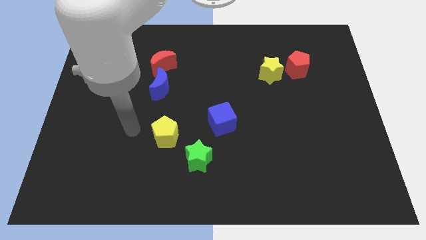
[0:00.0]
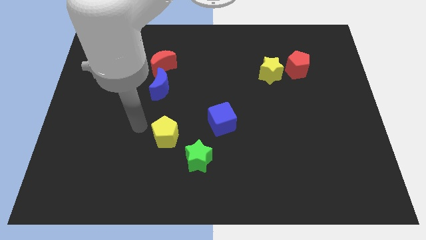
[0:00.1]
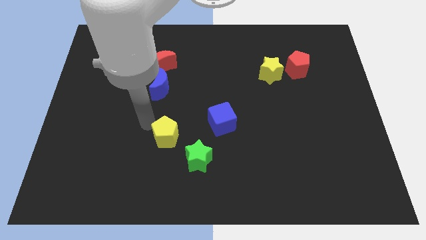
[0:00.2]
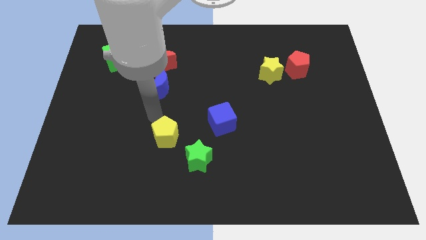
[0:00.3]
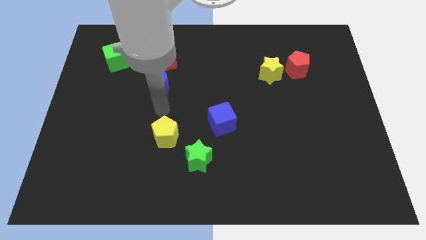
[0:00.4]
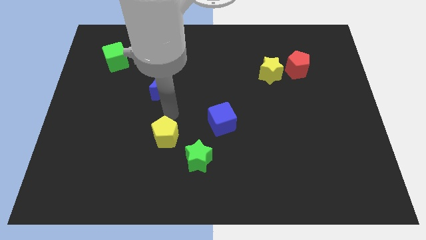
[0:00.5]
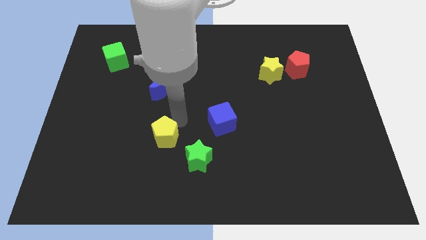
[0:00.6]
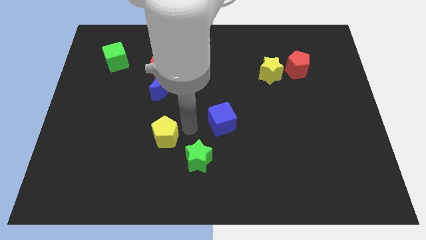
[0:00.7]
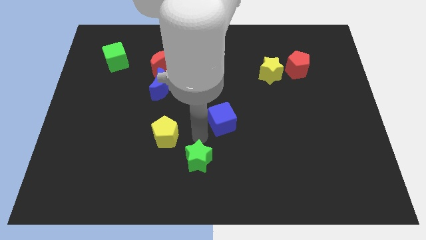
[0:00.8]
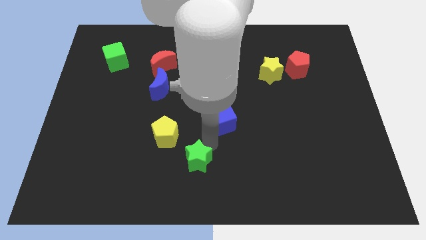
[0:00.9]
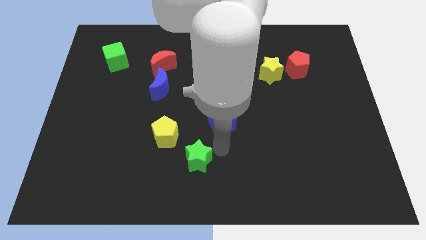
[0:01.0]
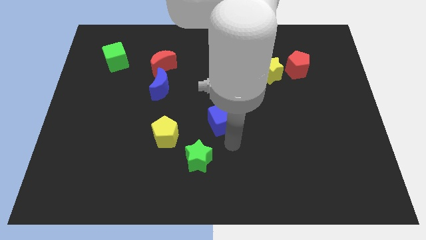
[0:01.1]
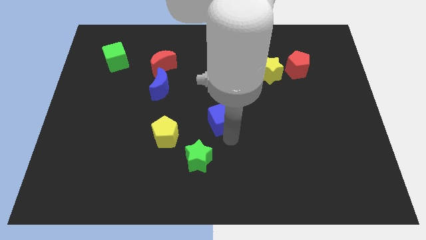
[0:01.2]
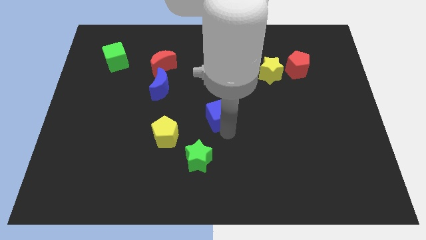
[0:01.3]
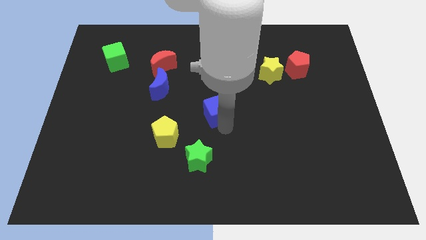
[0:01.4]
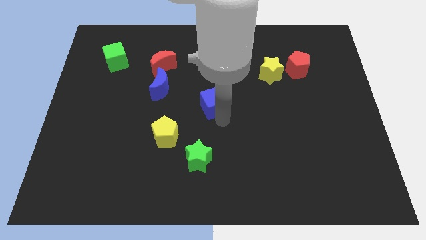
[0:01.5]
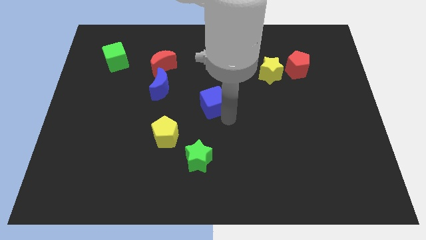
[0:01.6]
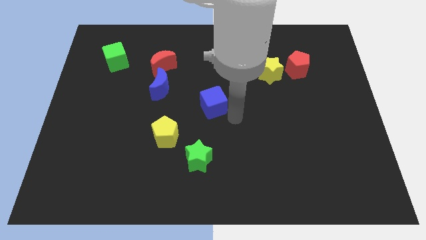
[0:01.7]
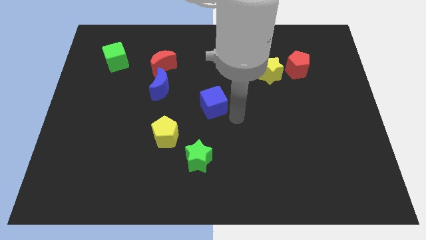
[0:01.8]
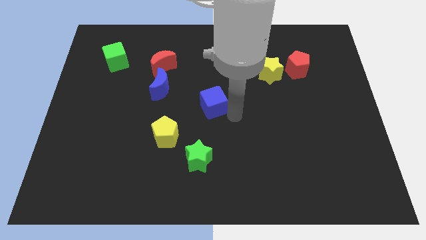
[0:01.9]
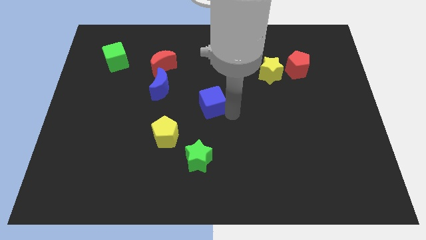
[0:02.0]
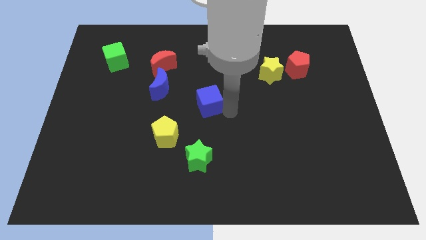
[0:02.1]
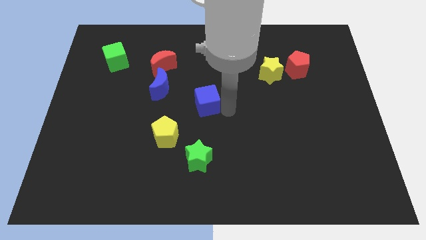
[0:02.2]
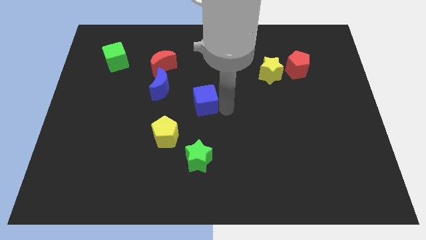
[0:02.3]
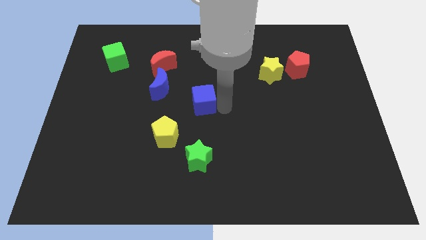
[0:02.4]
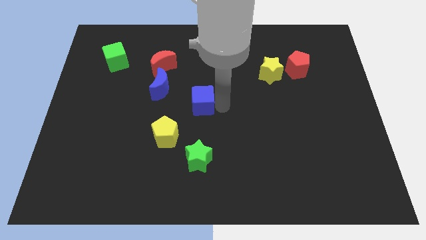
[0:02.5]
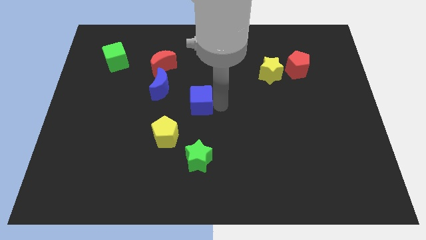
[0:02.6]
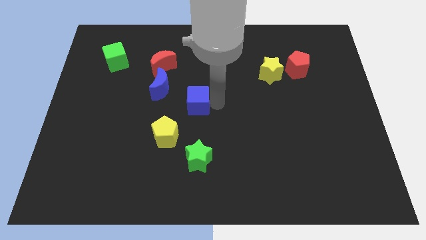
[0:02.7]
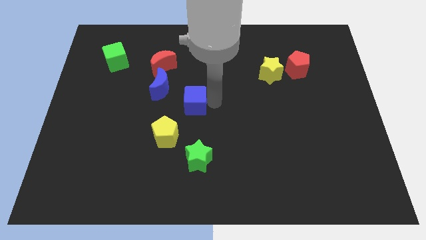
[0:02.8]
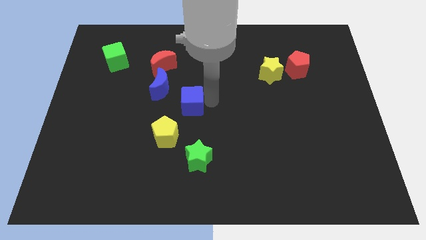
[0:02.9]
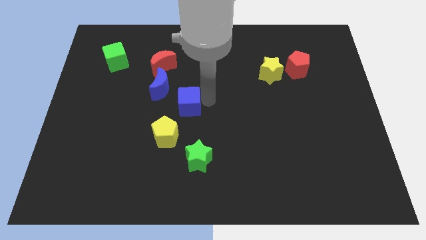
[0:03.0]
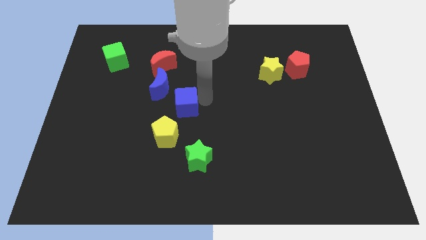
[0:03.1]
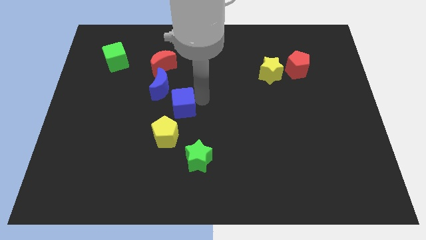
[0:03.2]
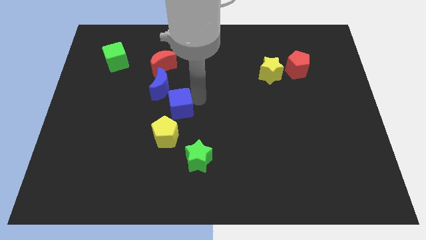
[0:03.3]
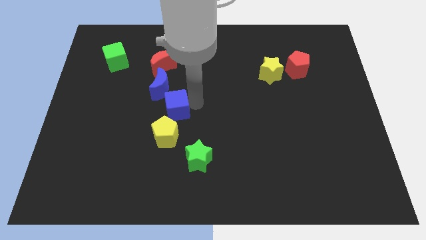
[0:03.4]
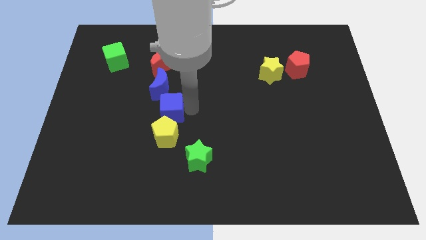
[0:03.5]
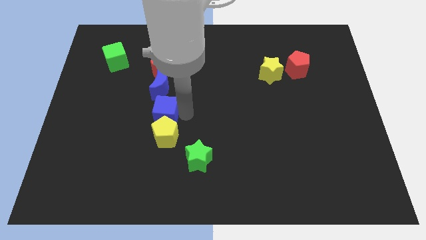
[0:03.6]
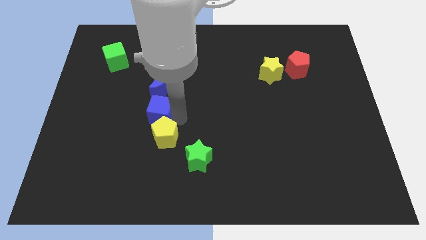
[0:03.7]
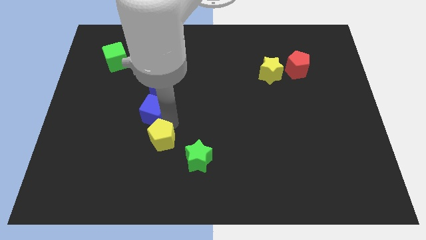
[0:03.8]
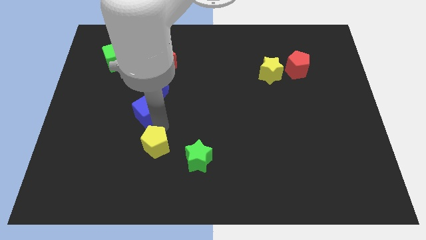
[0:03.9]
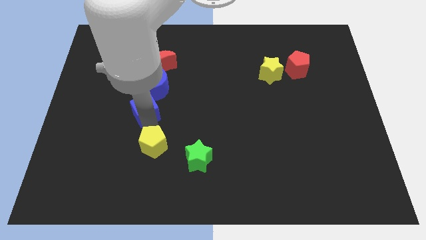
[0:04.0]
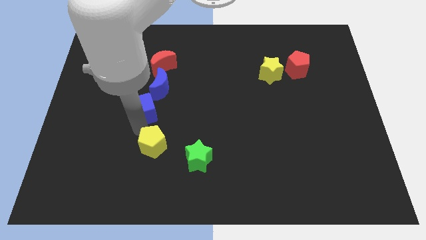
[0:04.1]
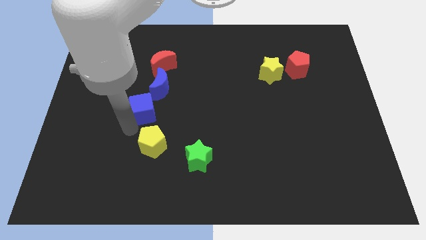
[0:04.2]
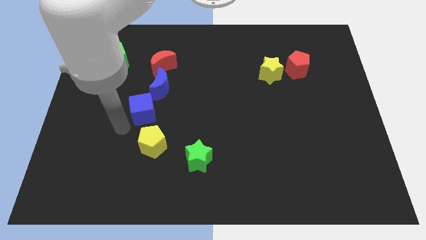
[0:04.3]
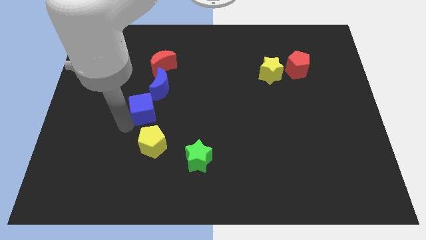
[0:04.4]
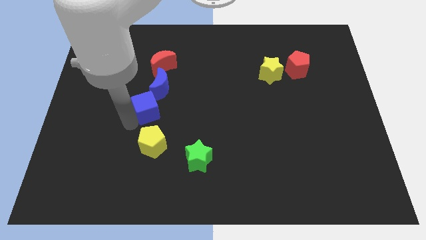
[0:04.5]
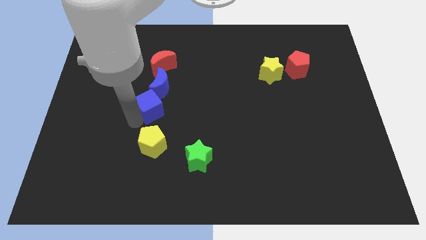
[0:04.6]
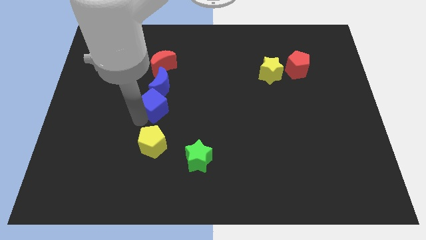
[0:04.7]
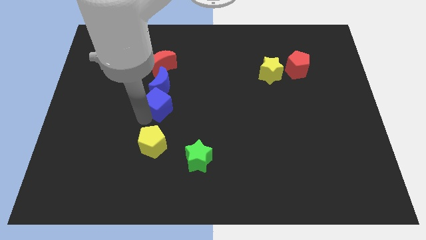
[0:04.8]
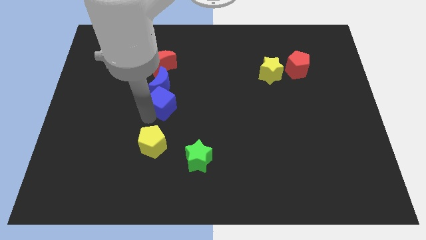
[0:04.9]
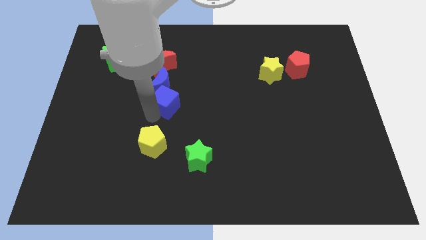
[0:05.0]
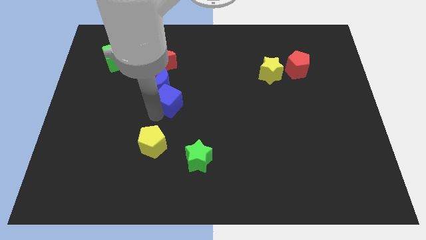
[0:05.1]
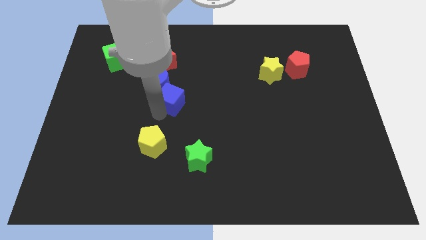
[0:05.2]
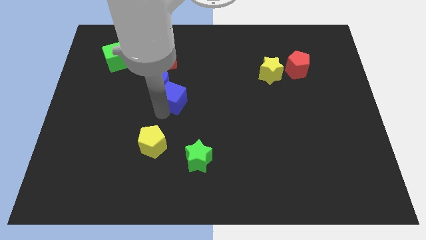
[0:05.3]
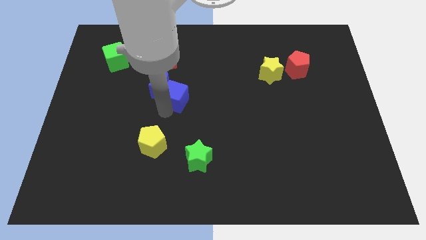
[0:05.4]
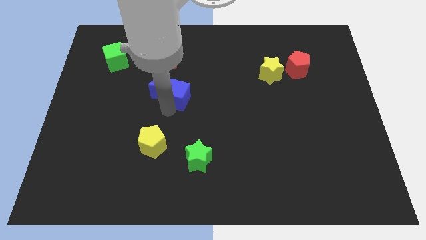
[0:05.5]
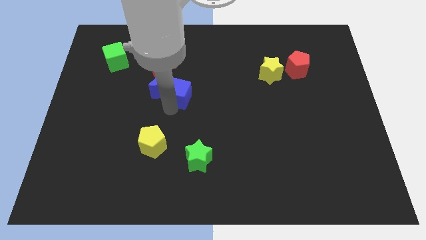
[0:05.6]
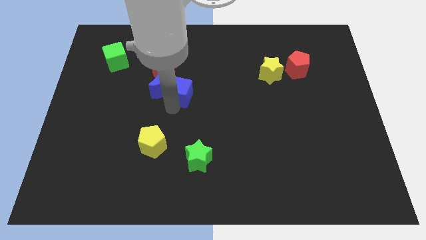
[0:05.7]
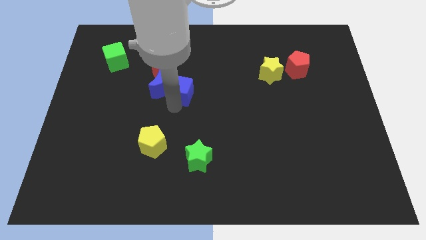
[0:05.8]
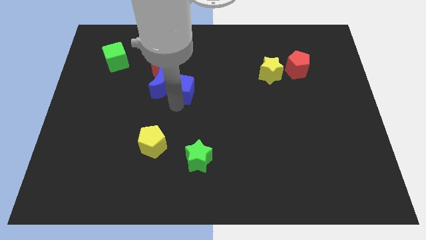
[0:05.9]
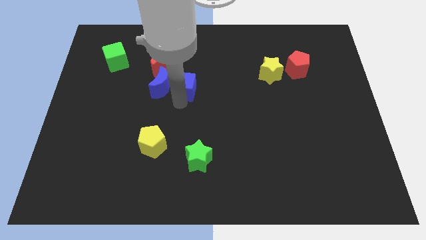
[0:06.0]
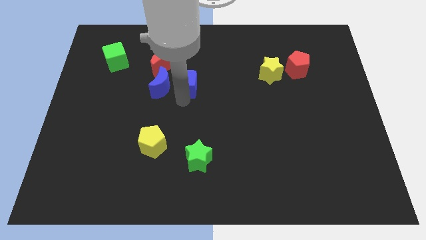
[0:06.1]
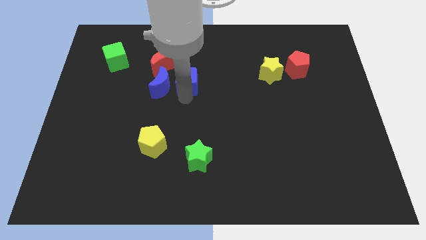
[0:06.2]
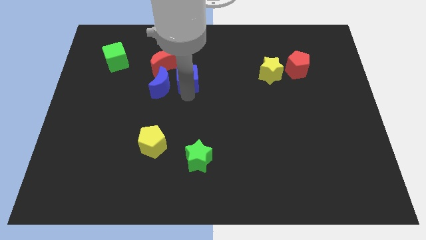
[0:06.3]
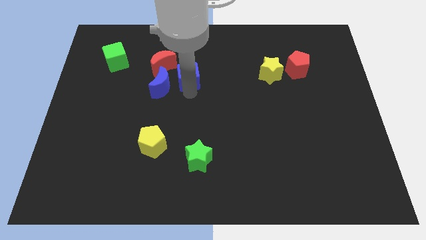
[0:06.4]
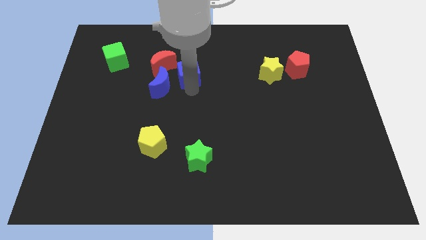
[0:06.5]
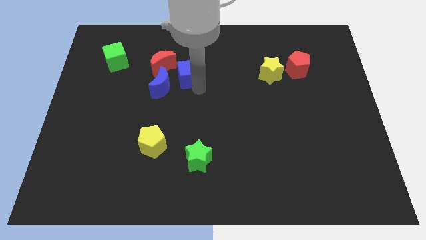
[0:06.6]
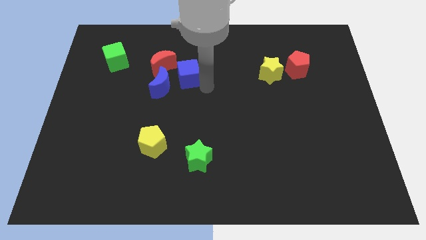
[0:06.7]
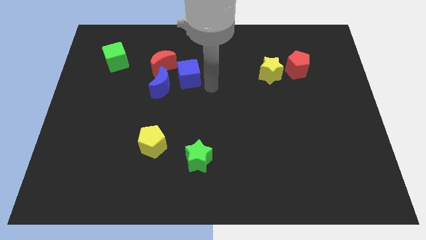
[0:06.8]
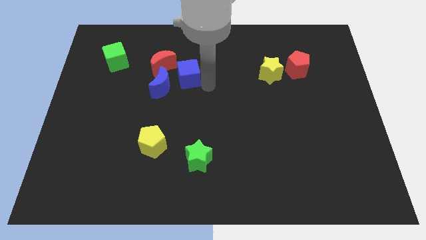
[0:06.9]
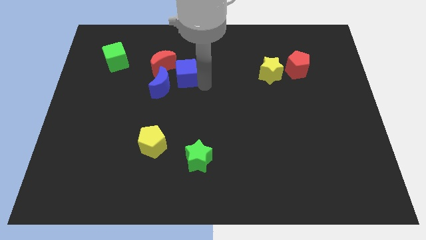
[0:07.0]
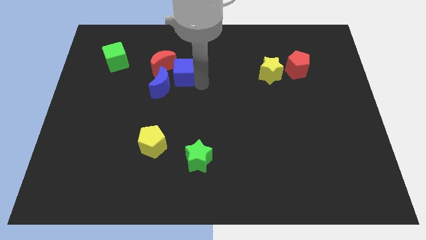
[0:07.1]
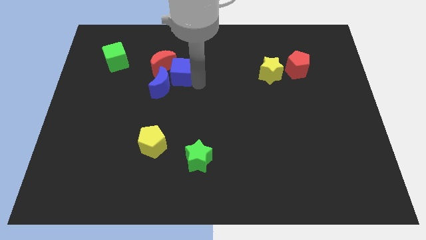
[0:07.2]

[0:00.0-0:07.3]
push the blue cube close to the red moon
